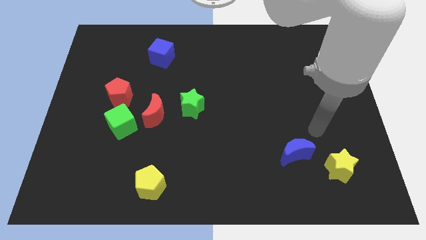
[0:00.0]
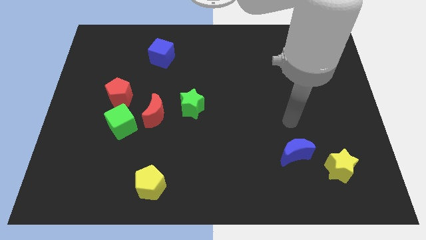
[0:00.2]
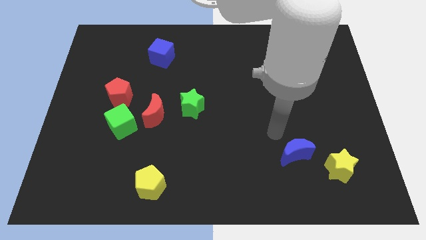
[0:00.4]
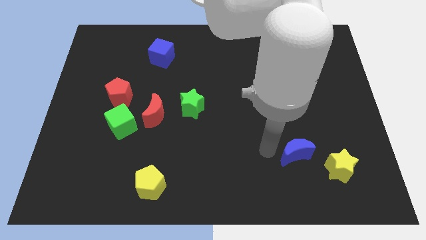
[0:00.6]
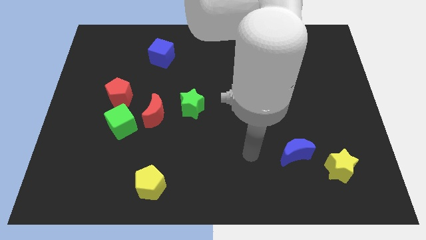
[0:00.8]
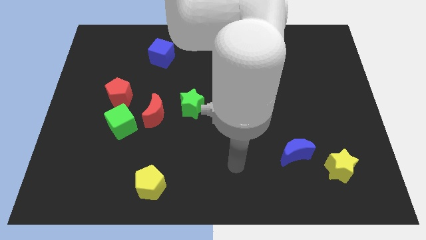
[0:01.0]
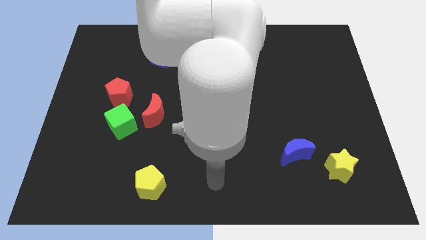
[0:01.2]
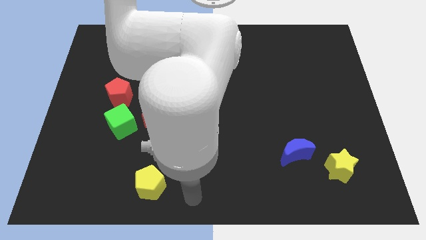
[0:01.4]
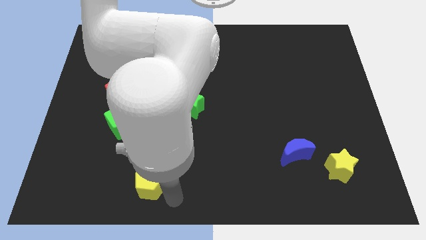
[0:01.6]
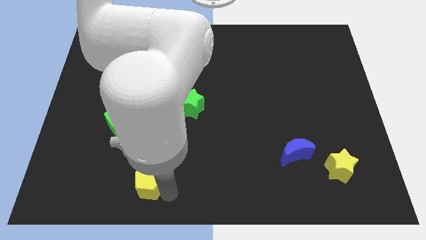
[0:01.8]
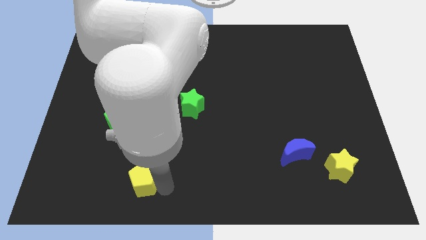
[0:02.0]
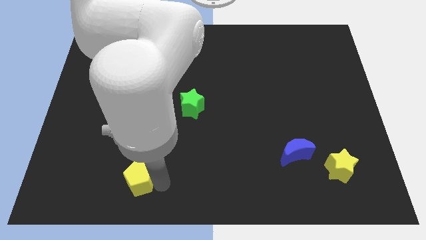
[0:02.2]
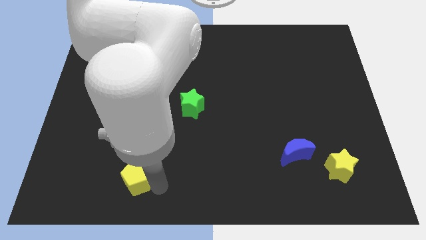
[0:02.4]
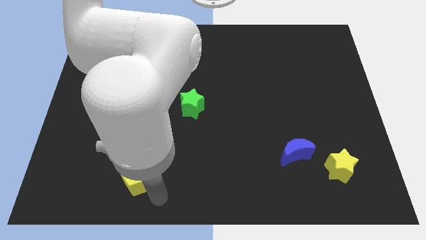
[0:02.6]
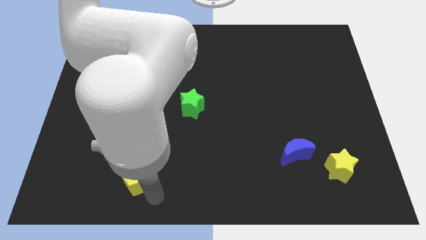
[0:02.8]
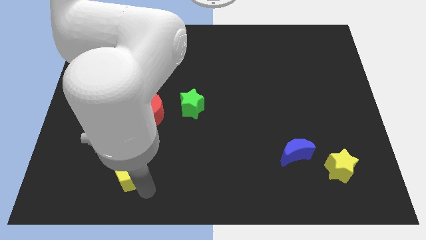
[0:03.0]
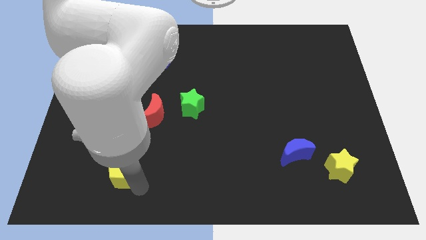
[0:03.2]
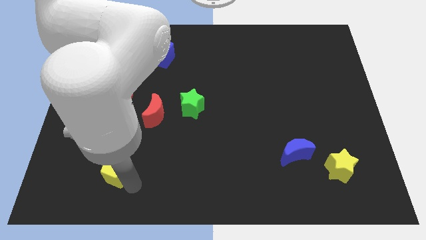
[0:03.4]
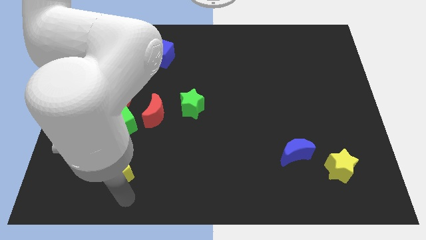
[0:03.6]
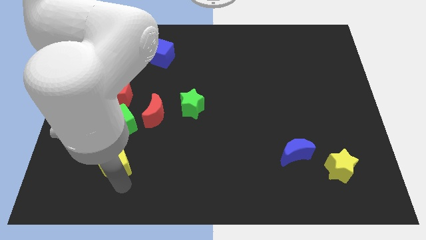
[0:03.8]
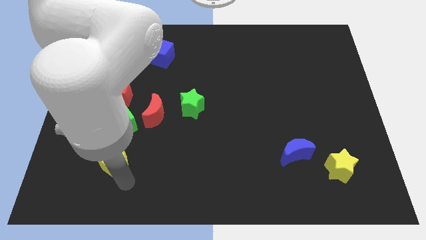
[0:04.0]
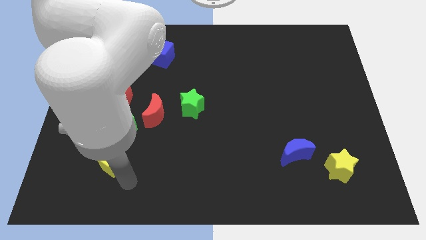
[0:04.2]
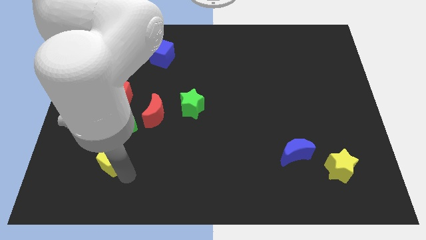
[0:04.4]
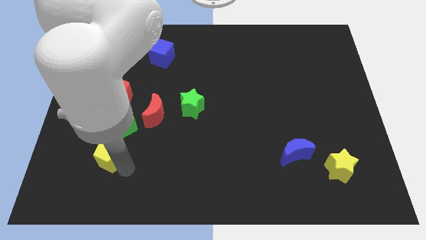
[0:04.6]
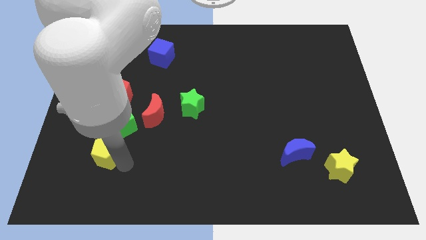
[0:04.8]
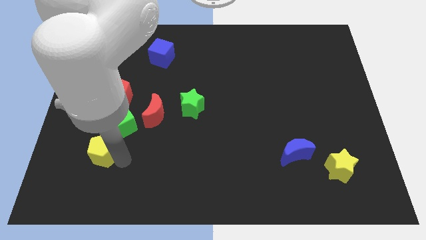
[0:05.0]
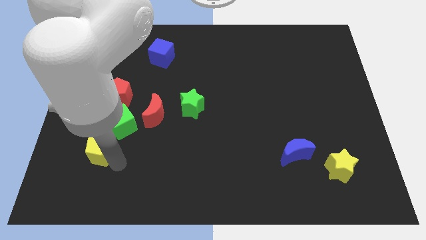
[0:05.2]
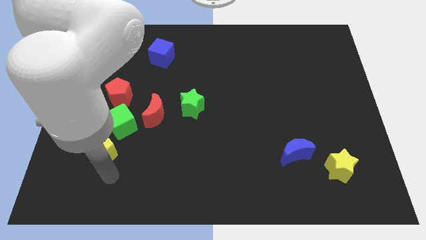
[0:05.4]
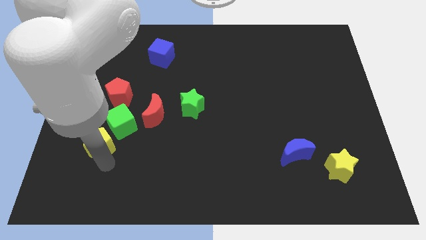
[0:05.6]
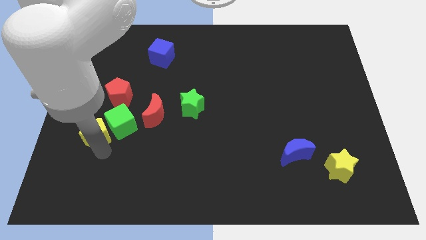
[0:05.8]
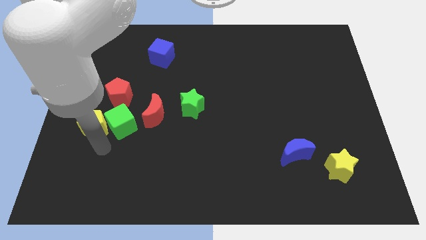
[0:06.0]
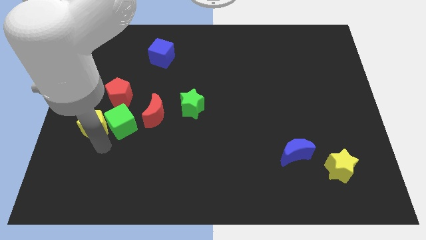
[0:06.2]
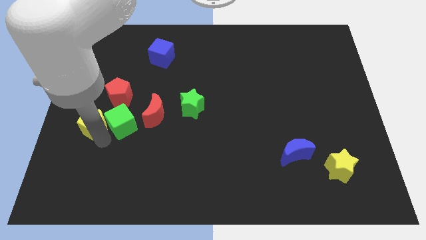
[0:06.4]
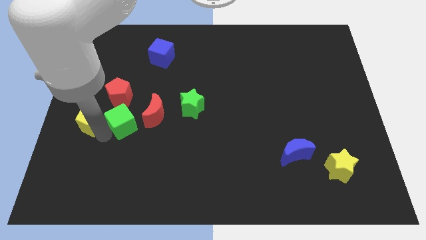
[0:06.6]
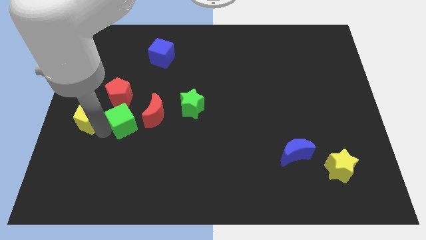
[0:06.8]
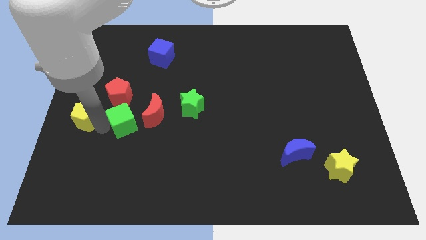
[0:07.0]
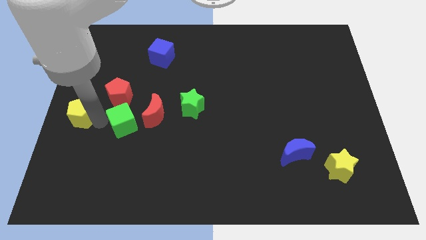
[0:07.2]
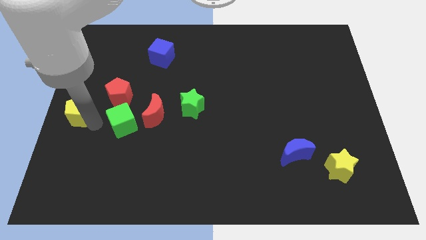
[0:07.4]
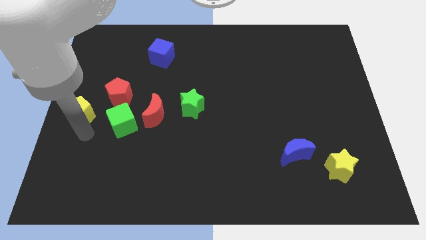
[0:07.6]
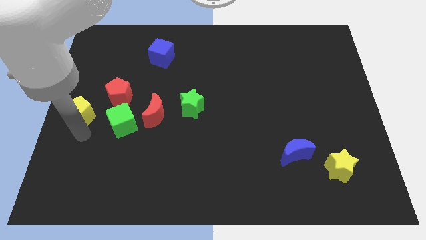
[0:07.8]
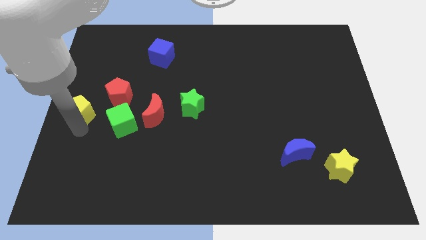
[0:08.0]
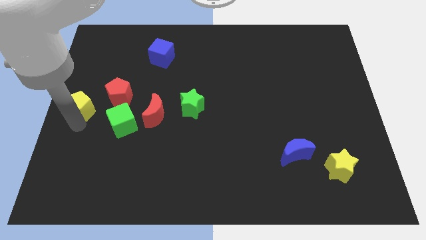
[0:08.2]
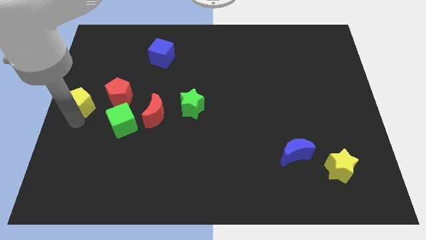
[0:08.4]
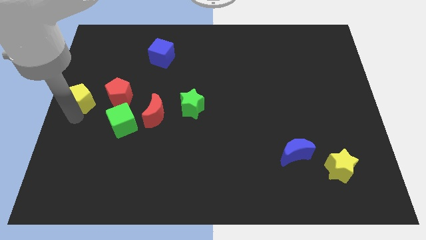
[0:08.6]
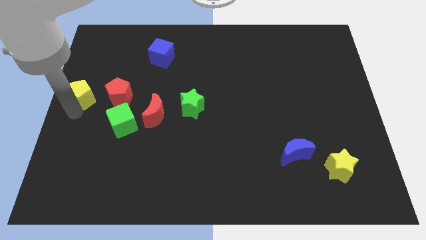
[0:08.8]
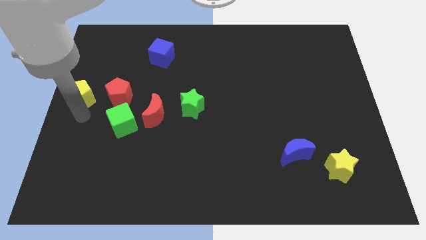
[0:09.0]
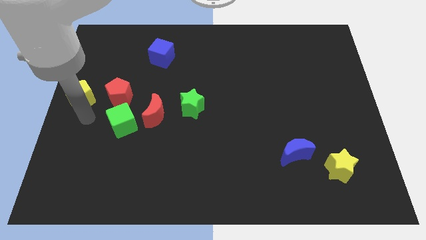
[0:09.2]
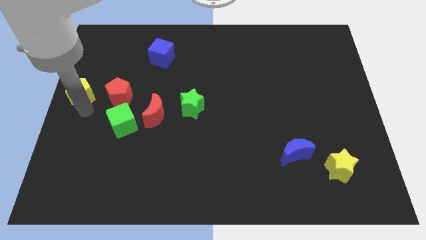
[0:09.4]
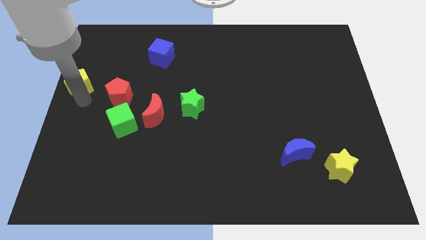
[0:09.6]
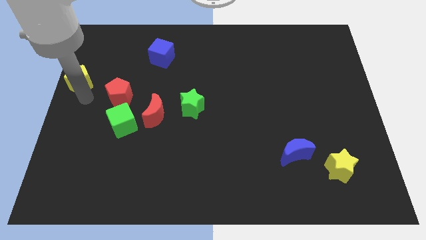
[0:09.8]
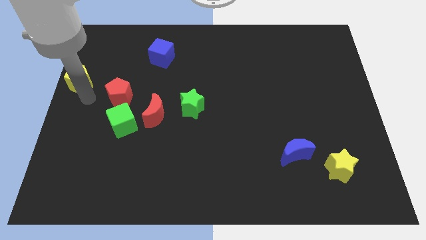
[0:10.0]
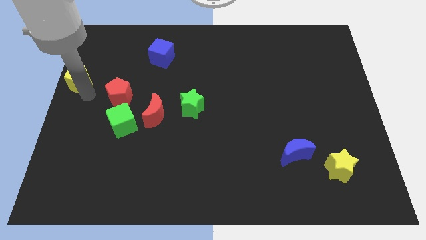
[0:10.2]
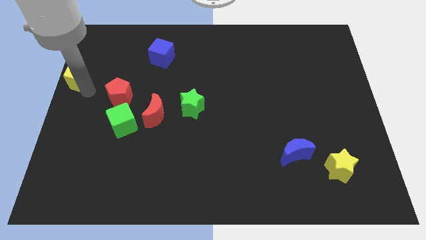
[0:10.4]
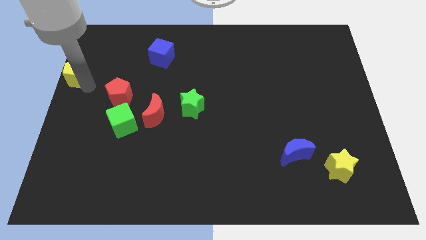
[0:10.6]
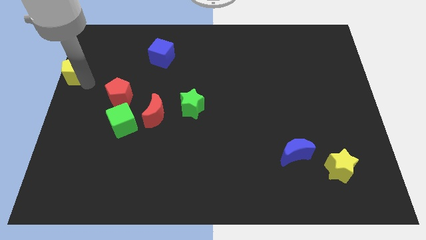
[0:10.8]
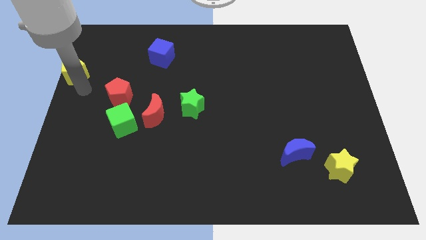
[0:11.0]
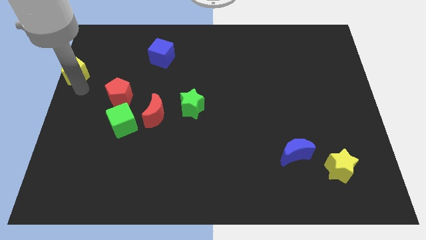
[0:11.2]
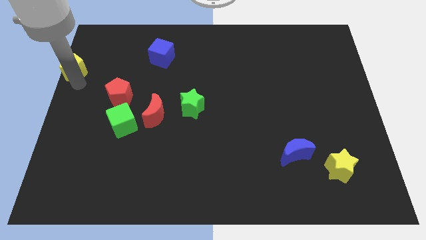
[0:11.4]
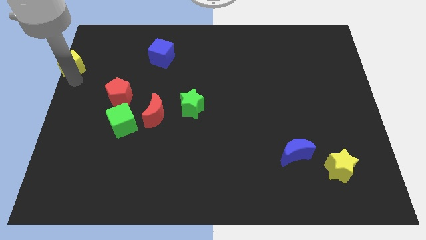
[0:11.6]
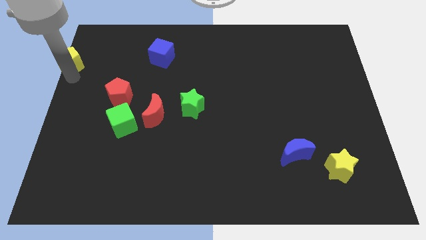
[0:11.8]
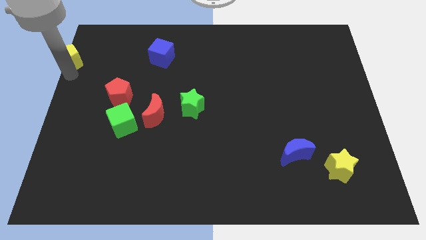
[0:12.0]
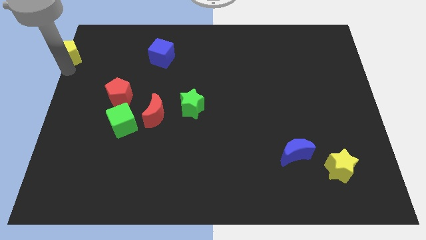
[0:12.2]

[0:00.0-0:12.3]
slide the yellow pentagon to the top left of the board

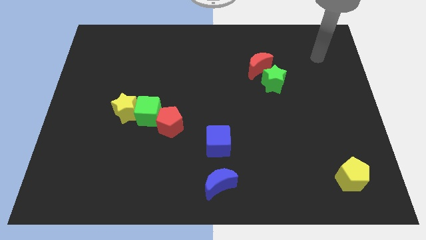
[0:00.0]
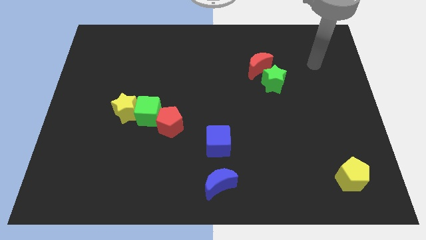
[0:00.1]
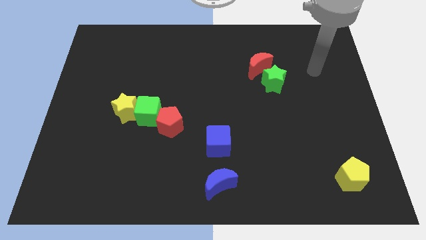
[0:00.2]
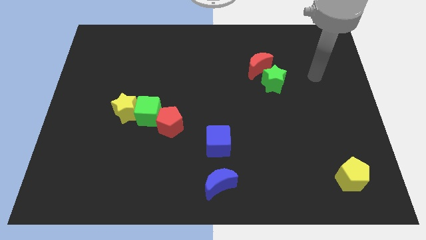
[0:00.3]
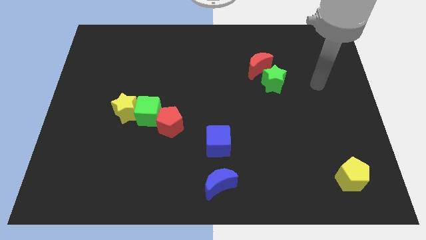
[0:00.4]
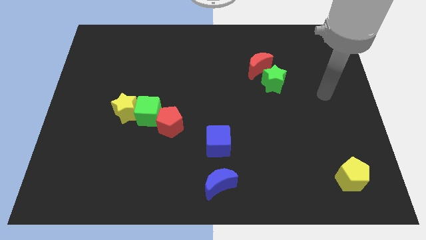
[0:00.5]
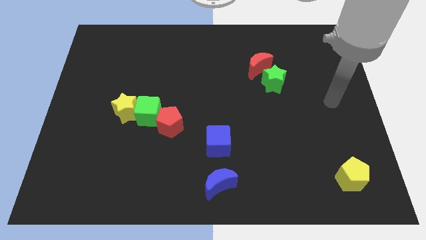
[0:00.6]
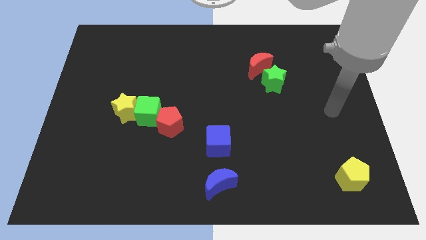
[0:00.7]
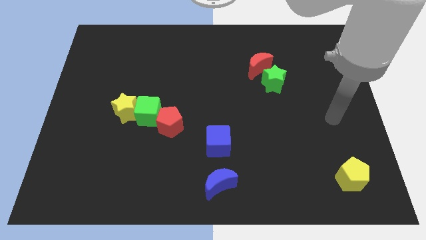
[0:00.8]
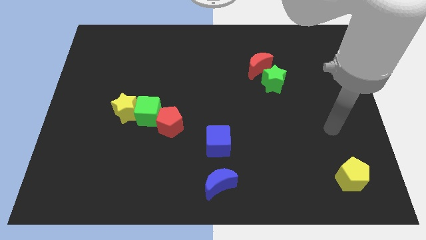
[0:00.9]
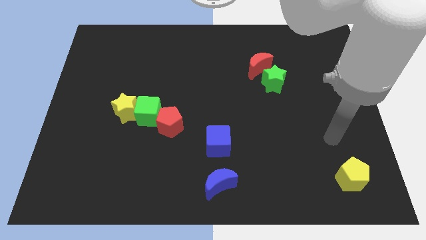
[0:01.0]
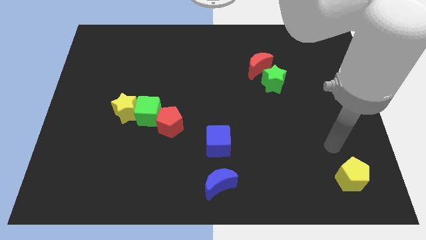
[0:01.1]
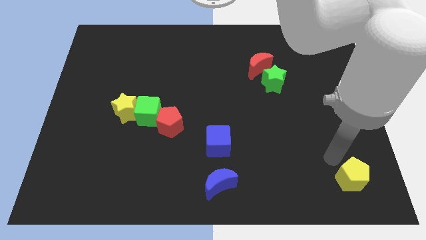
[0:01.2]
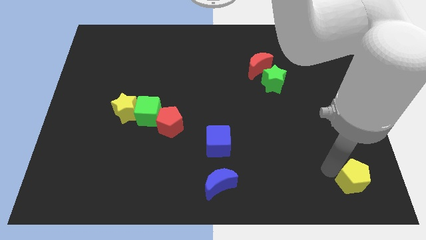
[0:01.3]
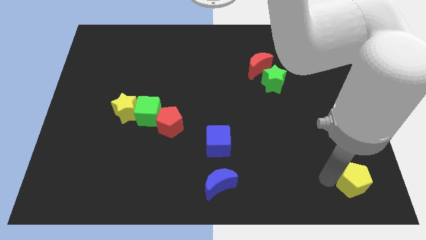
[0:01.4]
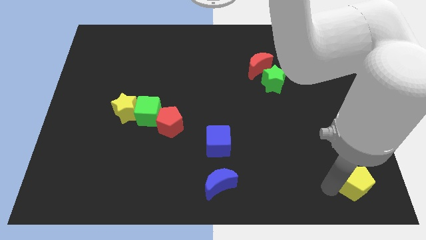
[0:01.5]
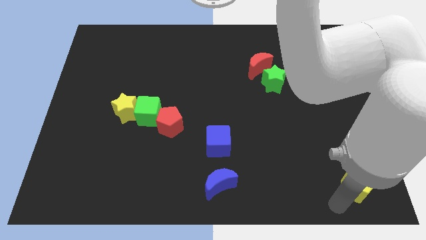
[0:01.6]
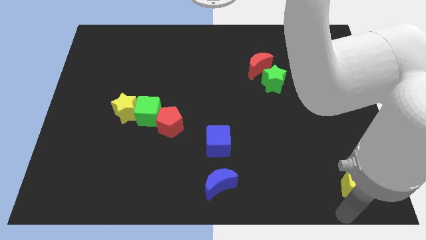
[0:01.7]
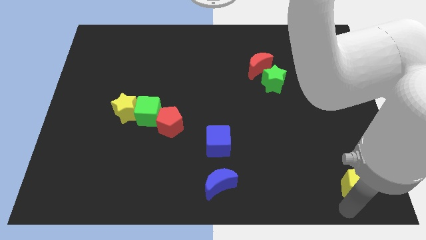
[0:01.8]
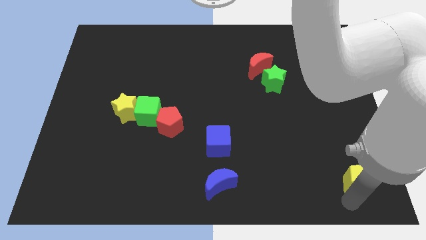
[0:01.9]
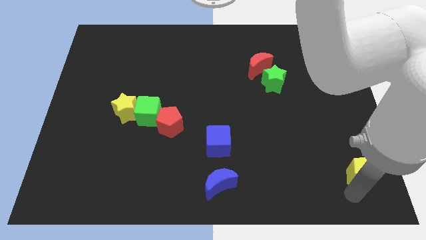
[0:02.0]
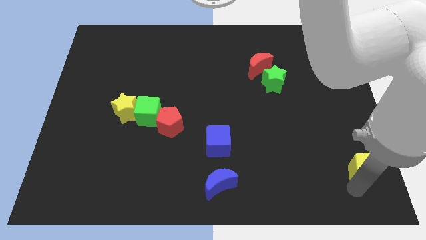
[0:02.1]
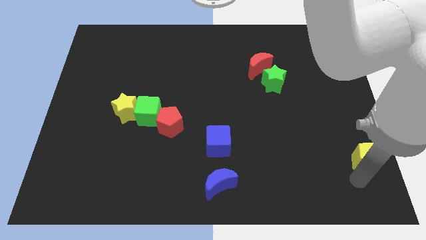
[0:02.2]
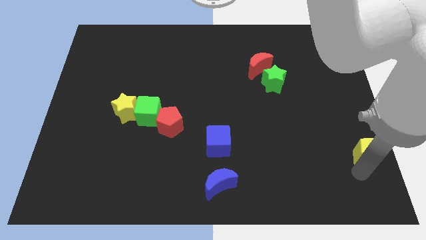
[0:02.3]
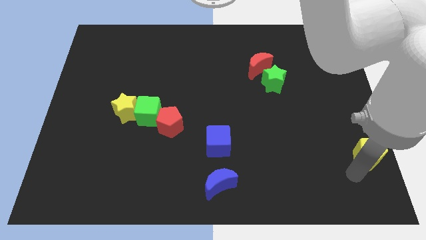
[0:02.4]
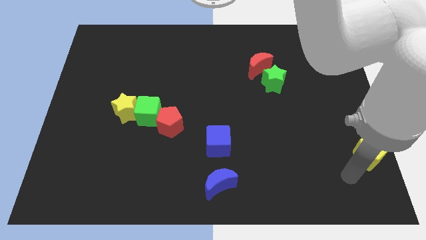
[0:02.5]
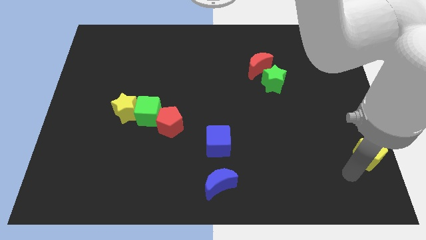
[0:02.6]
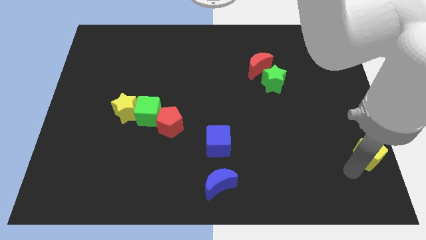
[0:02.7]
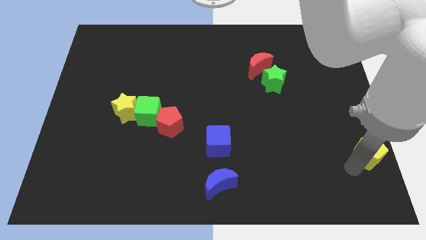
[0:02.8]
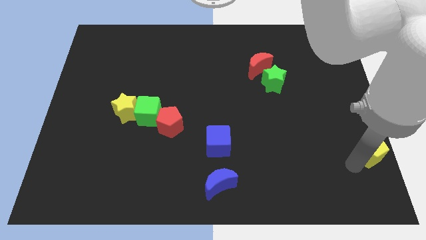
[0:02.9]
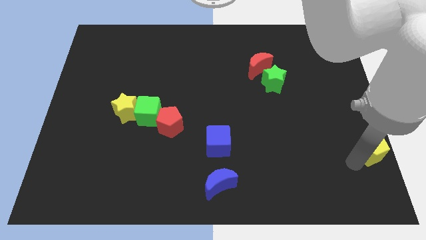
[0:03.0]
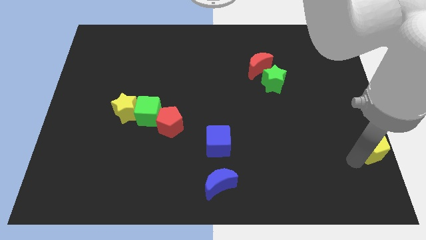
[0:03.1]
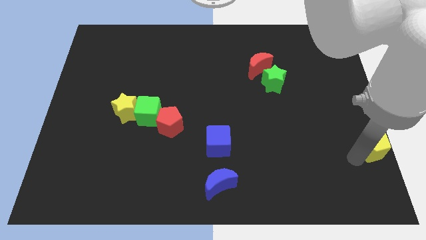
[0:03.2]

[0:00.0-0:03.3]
put the yellow pentagon to the right side
